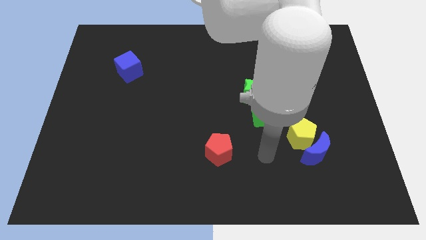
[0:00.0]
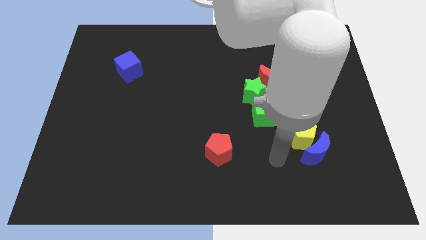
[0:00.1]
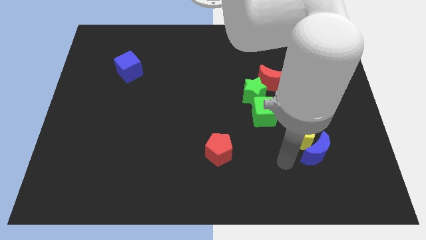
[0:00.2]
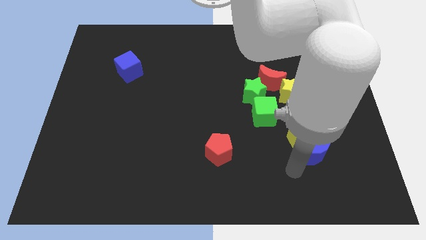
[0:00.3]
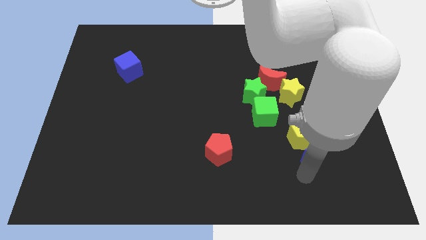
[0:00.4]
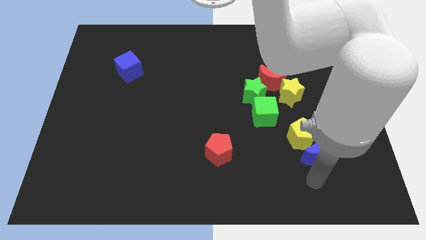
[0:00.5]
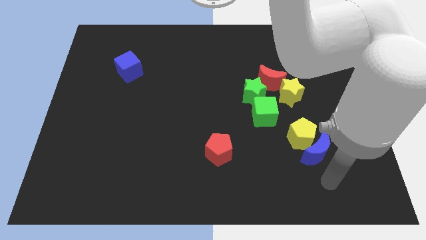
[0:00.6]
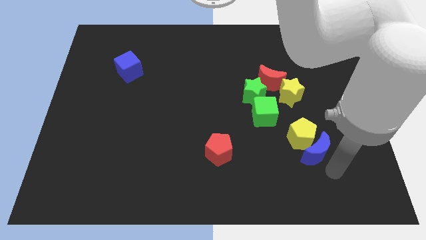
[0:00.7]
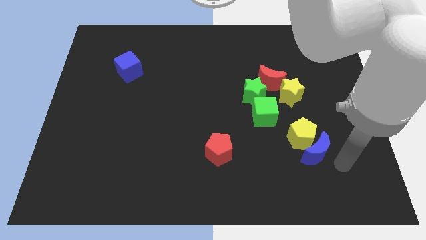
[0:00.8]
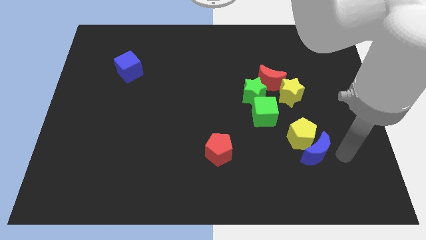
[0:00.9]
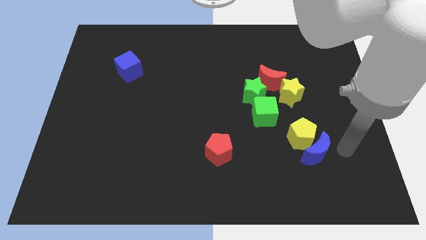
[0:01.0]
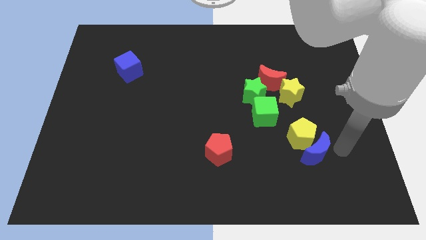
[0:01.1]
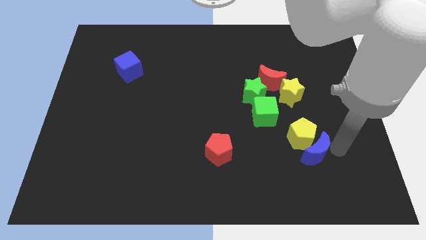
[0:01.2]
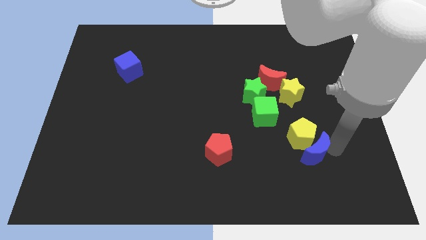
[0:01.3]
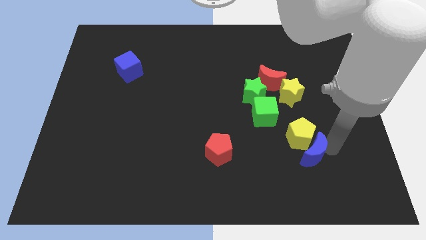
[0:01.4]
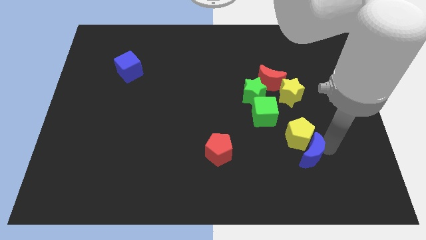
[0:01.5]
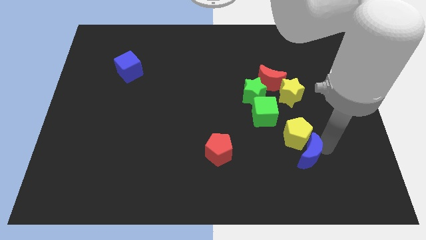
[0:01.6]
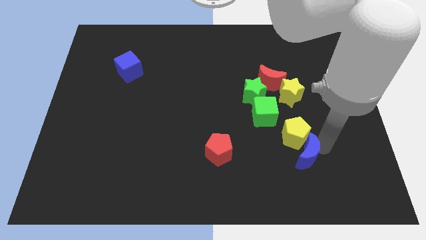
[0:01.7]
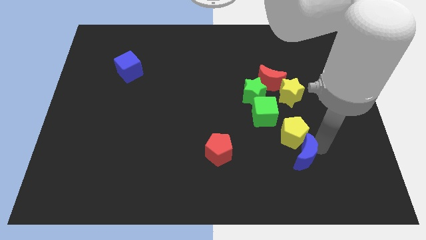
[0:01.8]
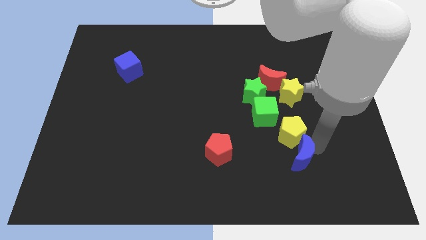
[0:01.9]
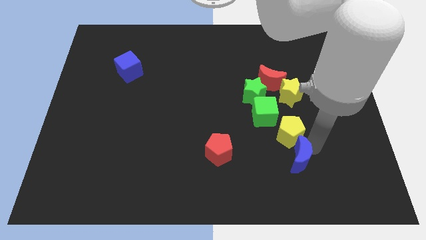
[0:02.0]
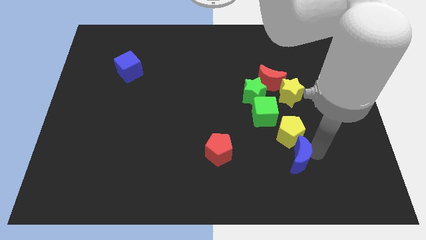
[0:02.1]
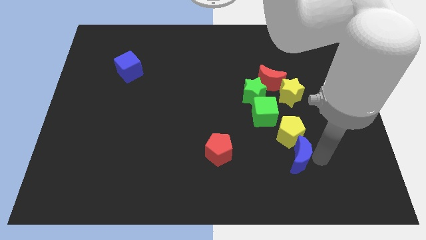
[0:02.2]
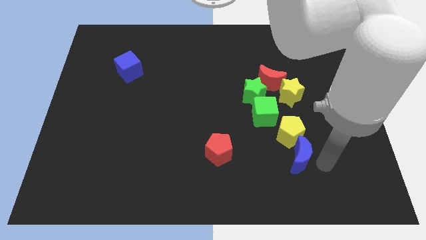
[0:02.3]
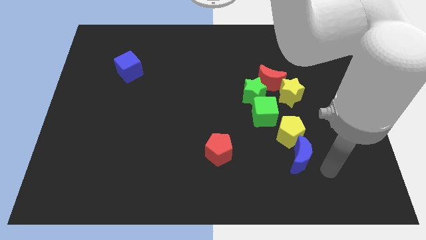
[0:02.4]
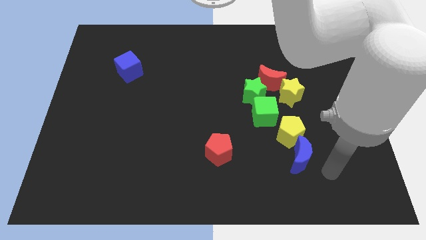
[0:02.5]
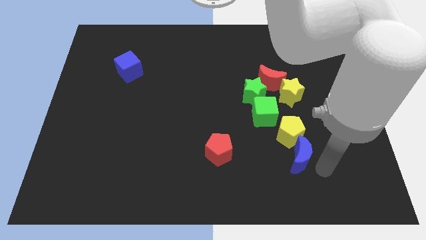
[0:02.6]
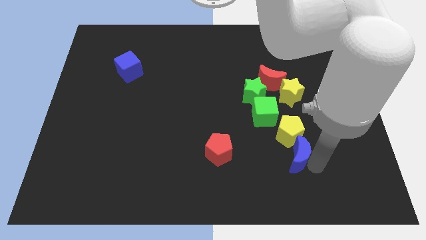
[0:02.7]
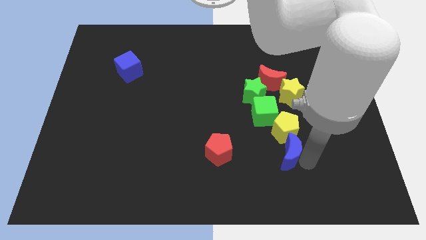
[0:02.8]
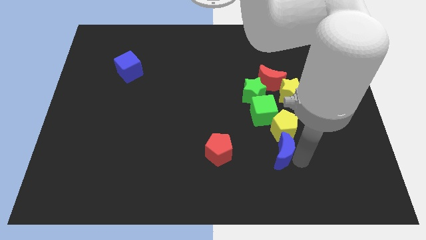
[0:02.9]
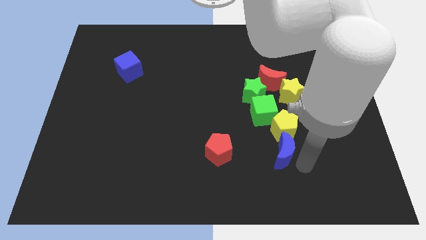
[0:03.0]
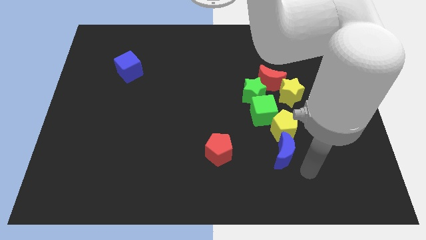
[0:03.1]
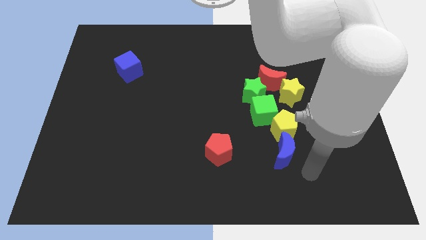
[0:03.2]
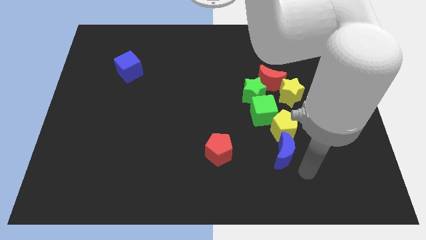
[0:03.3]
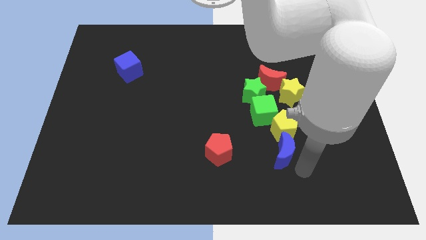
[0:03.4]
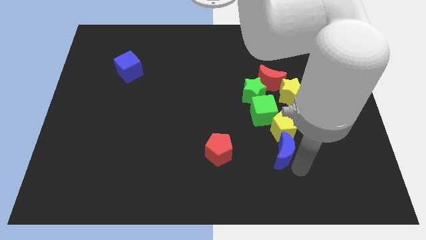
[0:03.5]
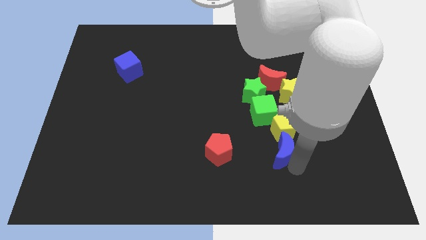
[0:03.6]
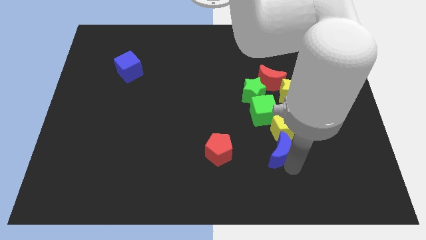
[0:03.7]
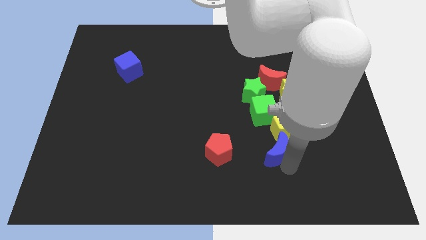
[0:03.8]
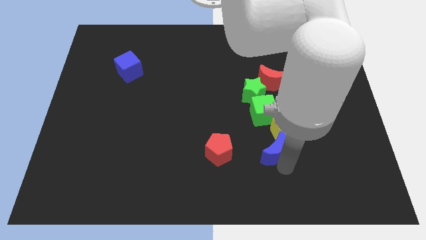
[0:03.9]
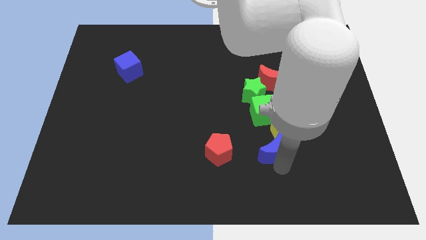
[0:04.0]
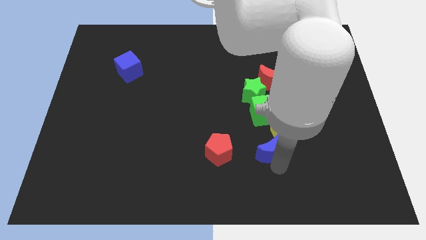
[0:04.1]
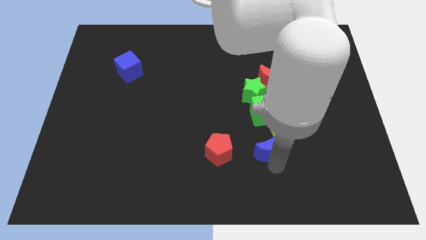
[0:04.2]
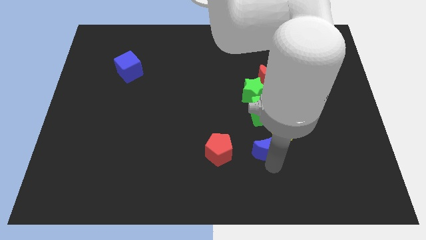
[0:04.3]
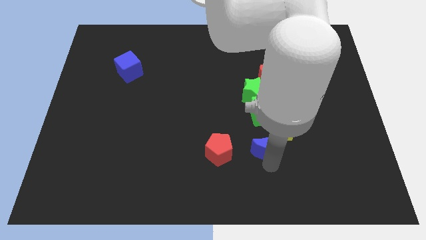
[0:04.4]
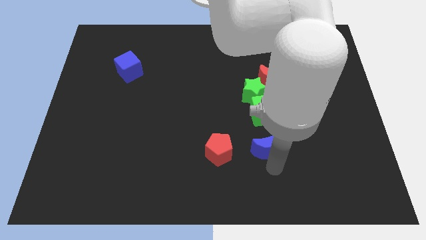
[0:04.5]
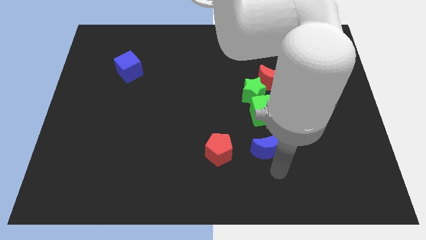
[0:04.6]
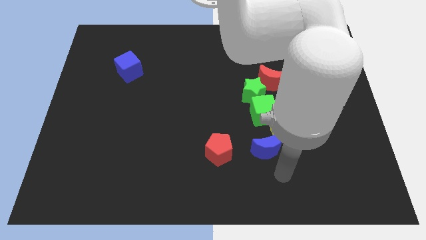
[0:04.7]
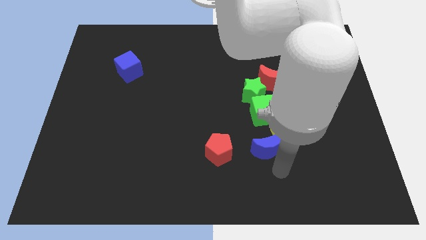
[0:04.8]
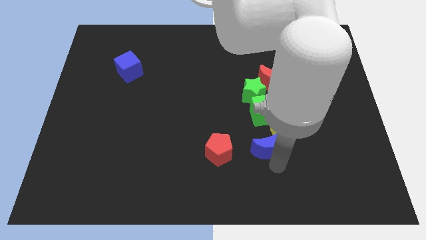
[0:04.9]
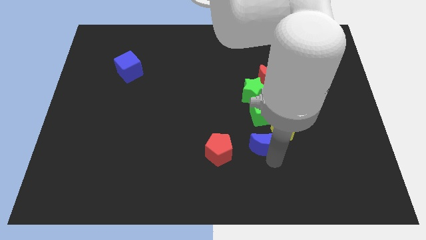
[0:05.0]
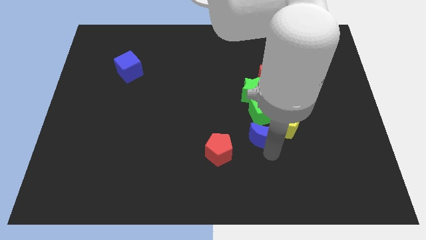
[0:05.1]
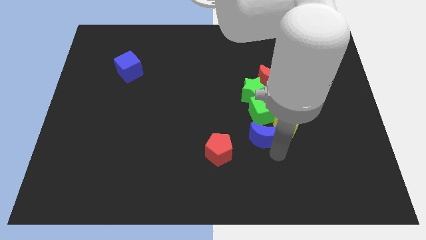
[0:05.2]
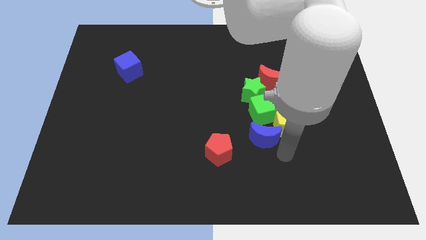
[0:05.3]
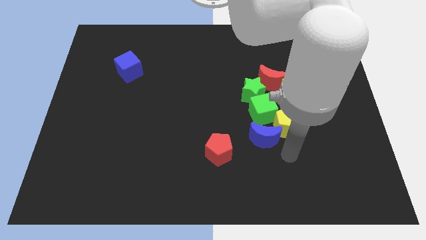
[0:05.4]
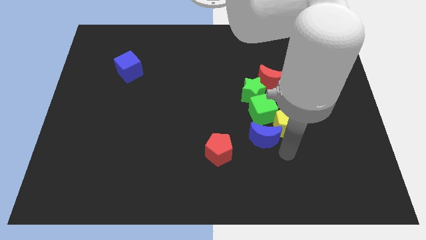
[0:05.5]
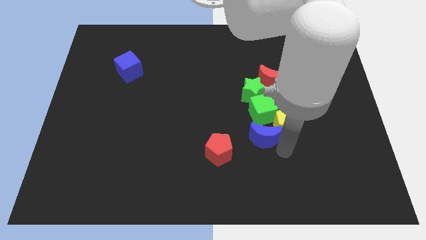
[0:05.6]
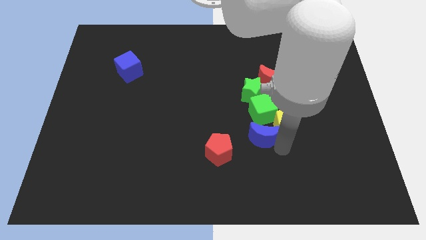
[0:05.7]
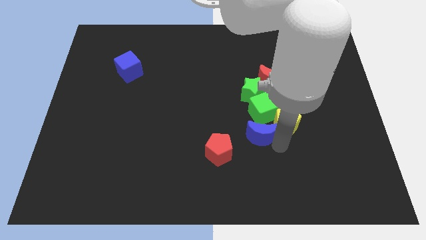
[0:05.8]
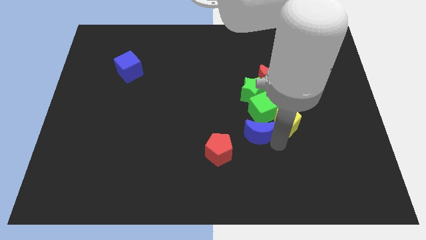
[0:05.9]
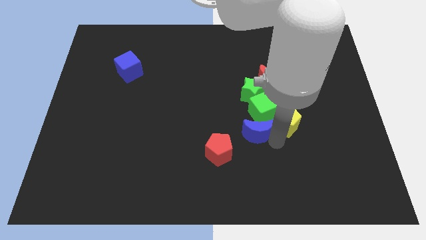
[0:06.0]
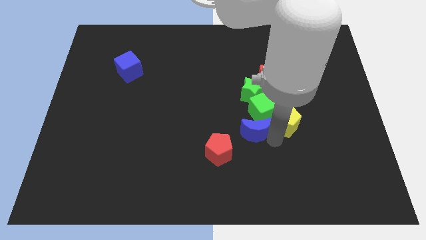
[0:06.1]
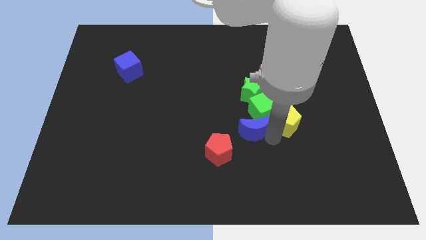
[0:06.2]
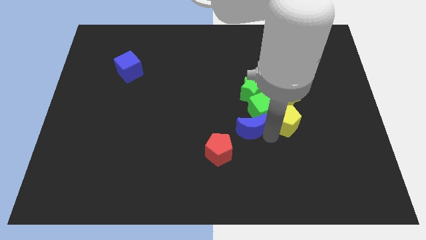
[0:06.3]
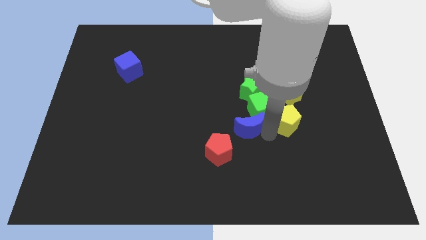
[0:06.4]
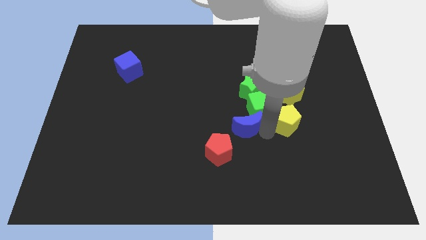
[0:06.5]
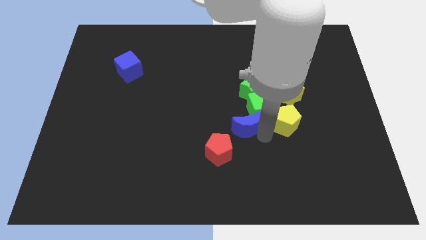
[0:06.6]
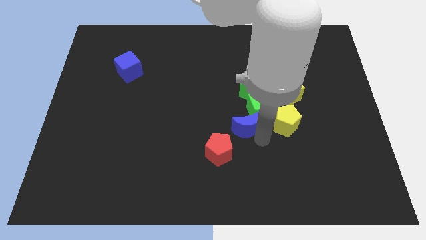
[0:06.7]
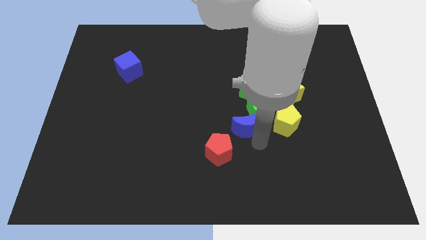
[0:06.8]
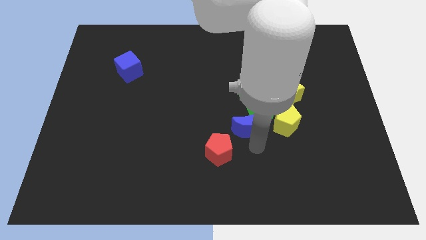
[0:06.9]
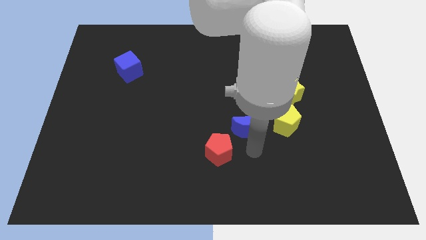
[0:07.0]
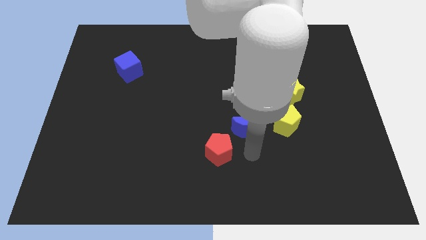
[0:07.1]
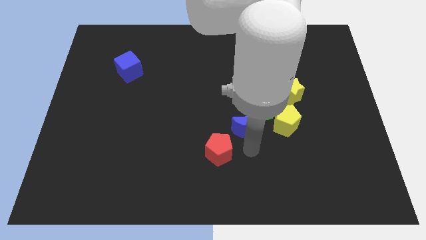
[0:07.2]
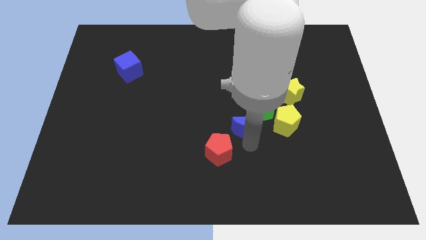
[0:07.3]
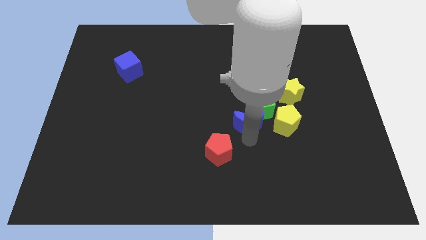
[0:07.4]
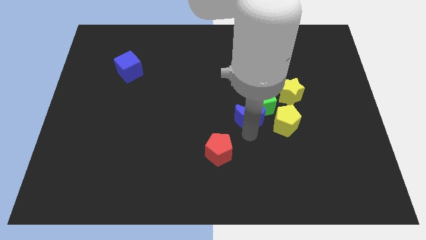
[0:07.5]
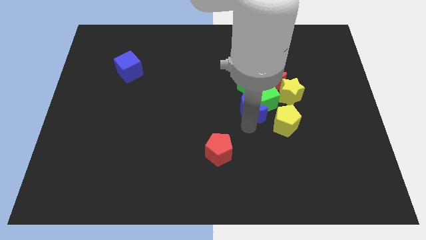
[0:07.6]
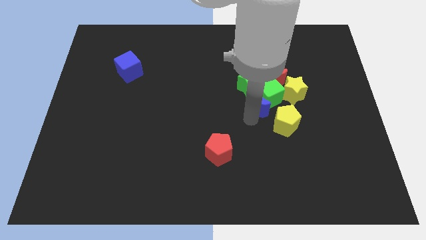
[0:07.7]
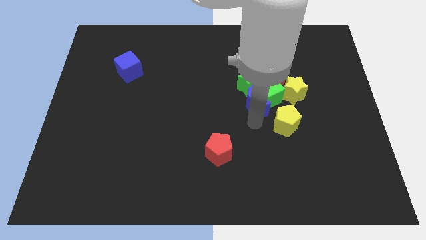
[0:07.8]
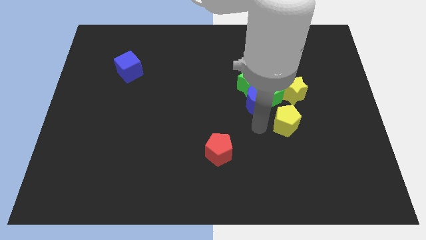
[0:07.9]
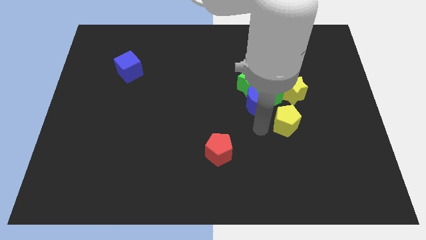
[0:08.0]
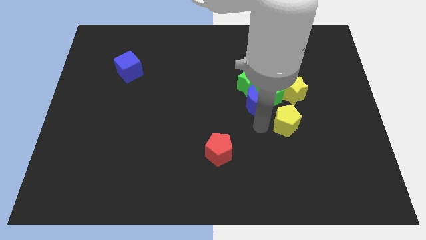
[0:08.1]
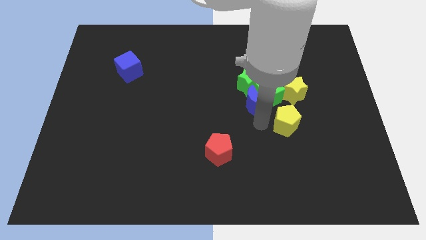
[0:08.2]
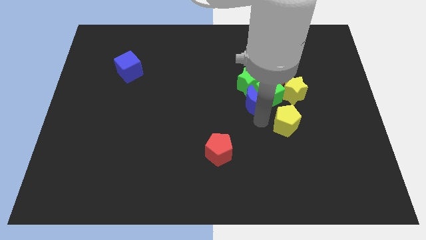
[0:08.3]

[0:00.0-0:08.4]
move the blue moon to the green star
